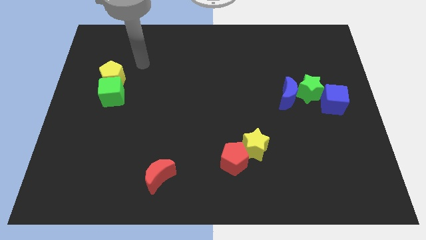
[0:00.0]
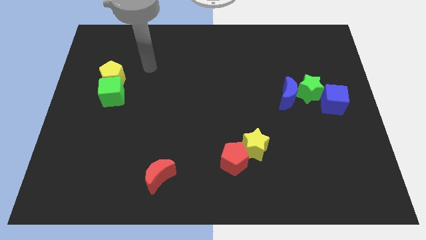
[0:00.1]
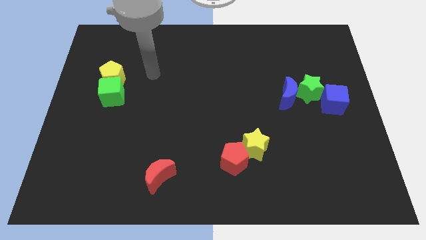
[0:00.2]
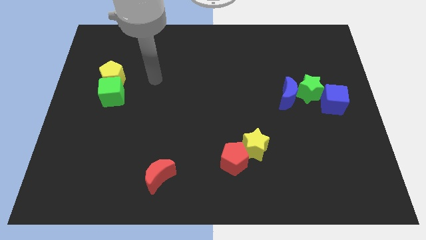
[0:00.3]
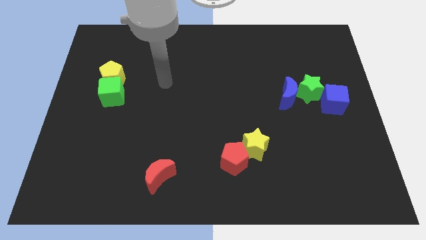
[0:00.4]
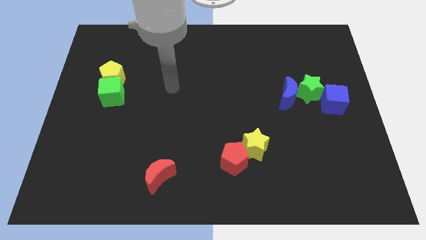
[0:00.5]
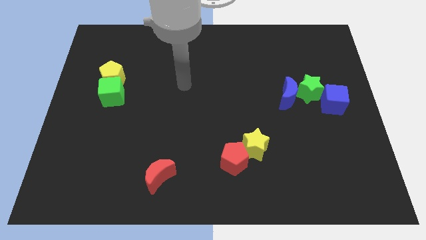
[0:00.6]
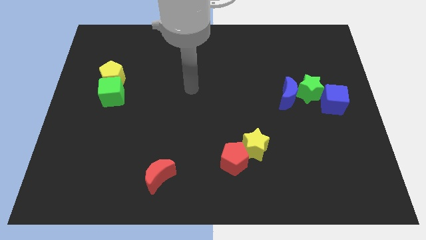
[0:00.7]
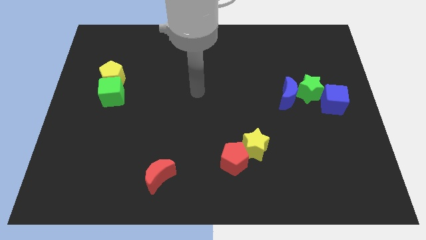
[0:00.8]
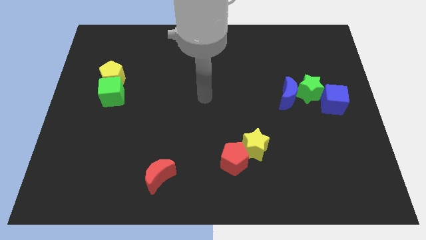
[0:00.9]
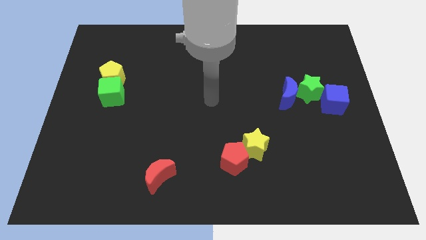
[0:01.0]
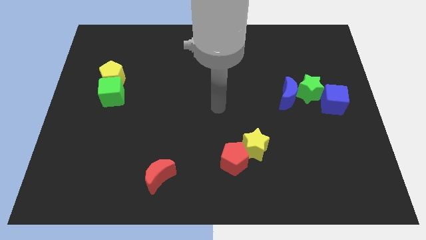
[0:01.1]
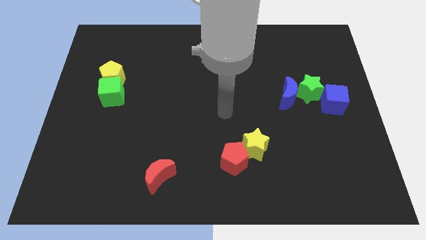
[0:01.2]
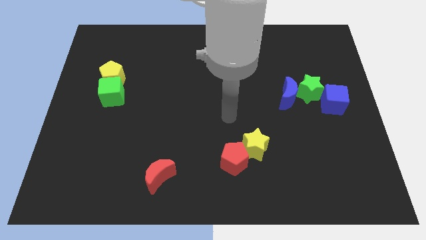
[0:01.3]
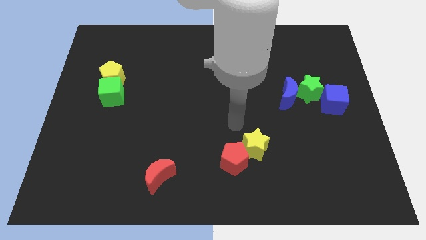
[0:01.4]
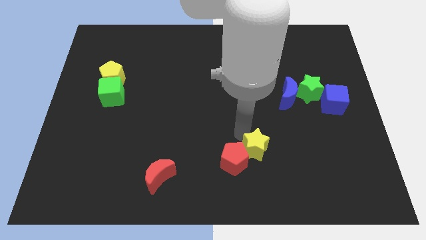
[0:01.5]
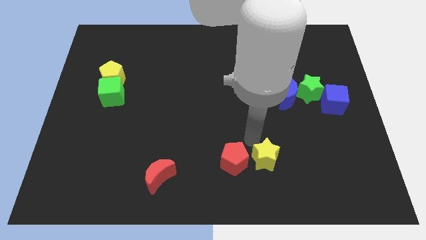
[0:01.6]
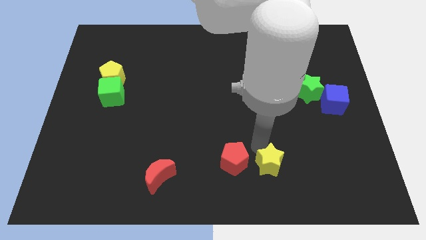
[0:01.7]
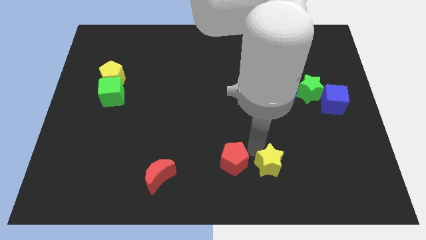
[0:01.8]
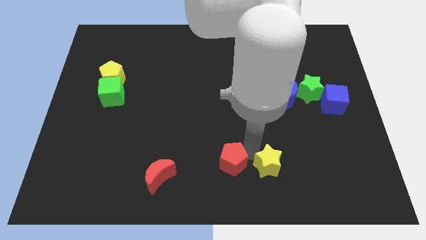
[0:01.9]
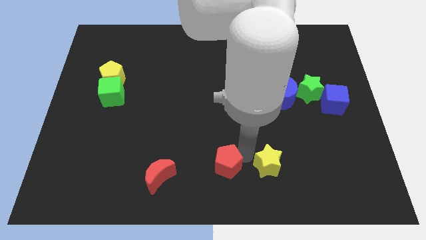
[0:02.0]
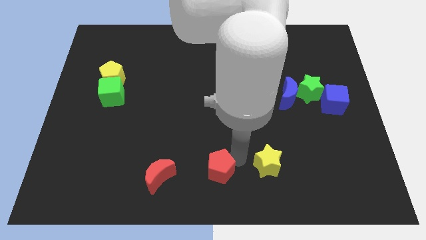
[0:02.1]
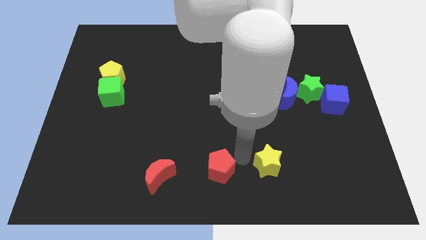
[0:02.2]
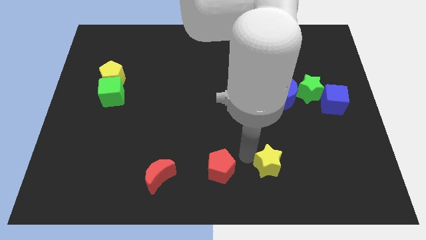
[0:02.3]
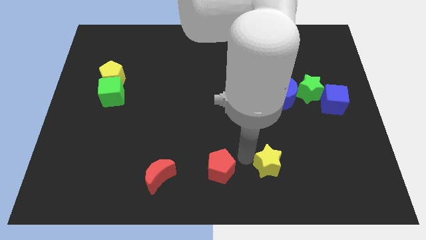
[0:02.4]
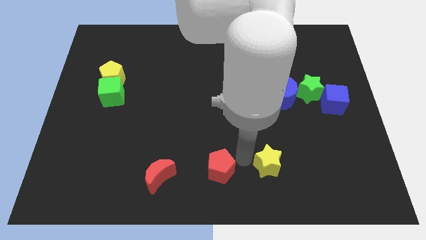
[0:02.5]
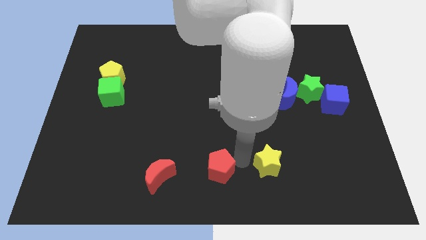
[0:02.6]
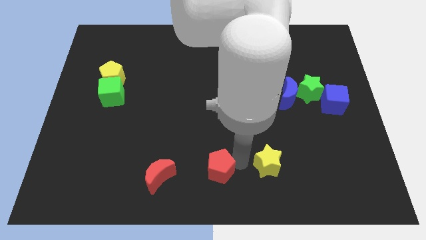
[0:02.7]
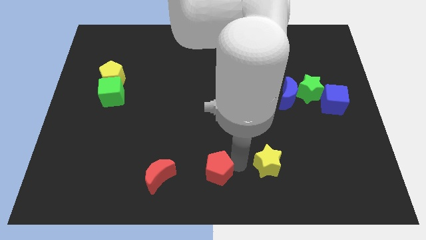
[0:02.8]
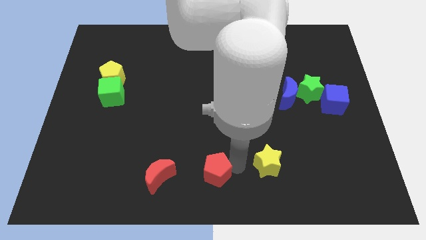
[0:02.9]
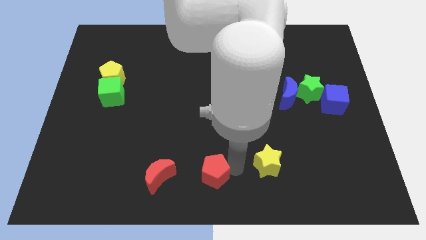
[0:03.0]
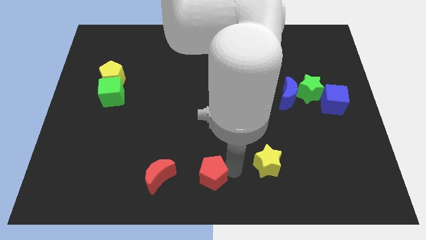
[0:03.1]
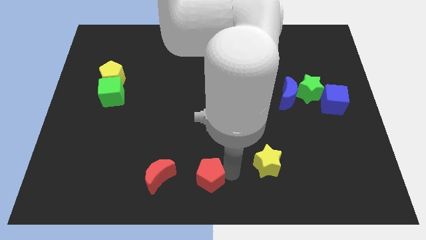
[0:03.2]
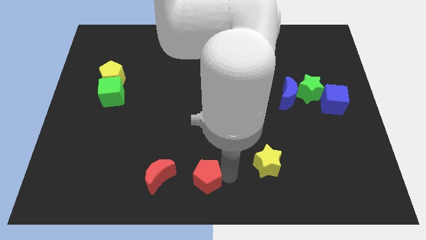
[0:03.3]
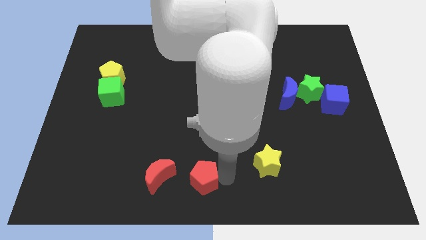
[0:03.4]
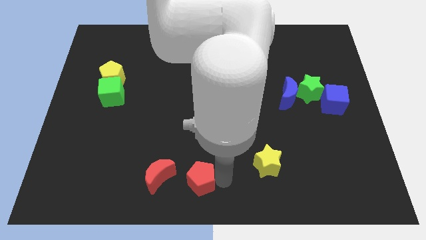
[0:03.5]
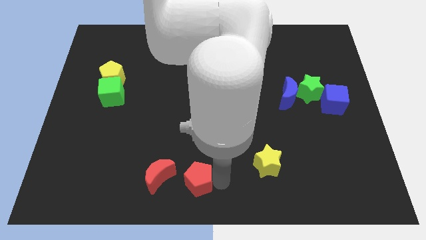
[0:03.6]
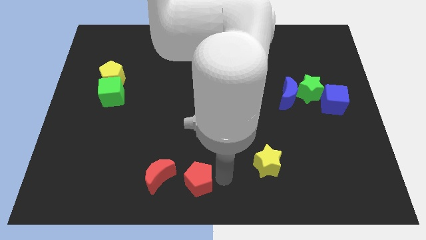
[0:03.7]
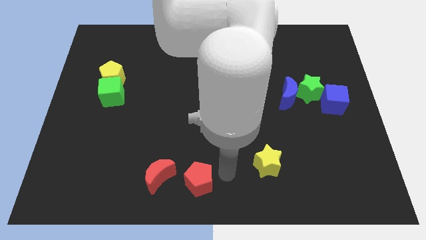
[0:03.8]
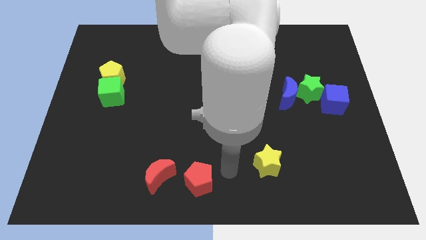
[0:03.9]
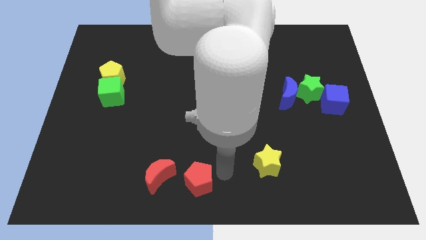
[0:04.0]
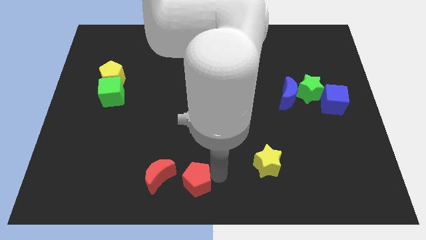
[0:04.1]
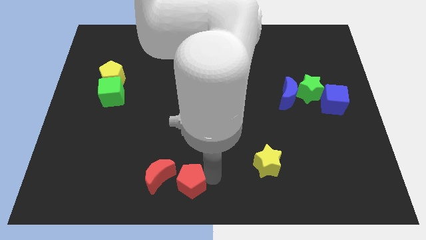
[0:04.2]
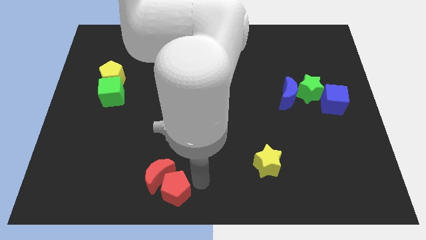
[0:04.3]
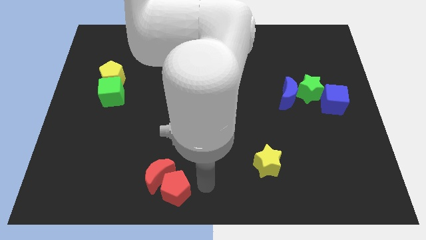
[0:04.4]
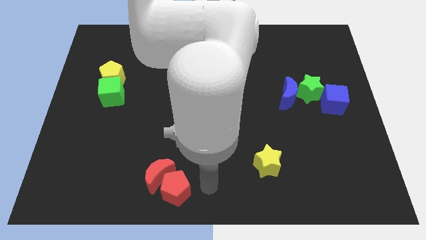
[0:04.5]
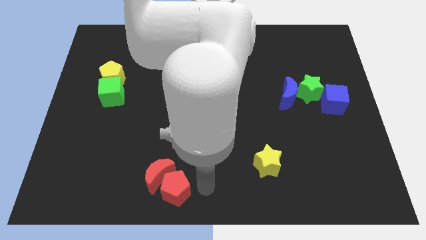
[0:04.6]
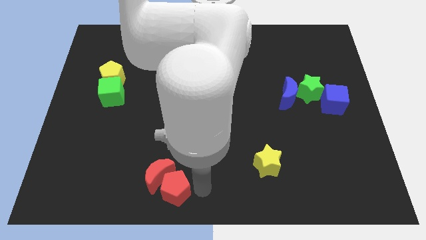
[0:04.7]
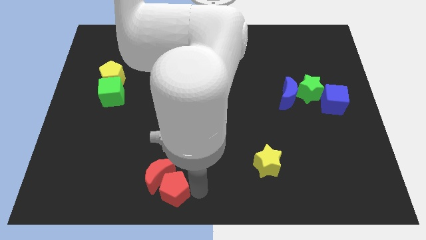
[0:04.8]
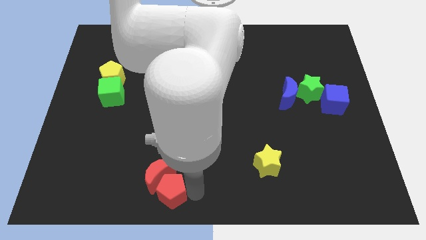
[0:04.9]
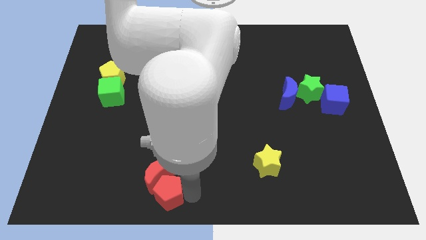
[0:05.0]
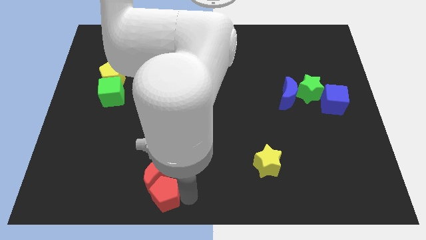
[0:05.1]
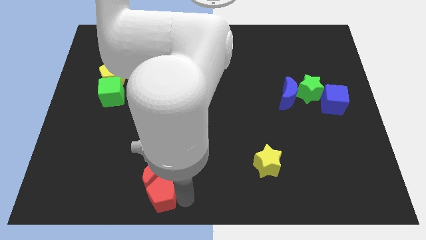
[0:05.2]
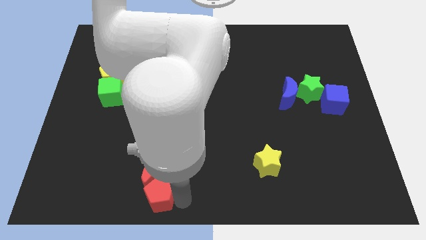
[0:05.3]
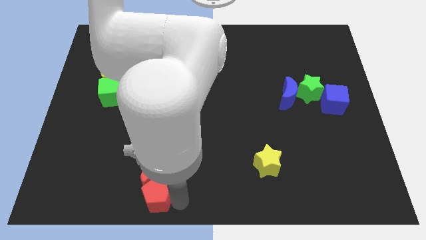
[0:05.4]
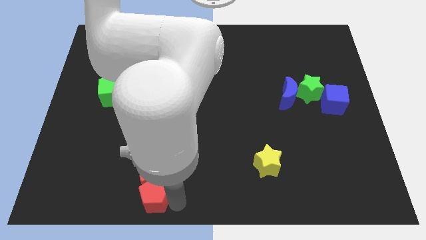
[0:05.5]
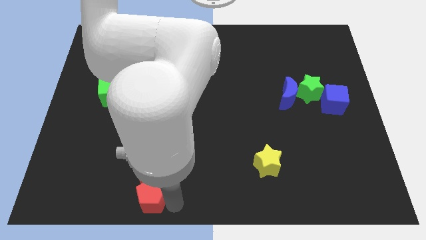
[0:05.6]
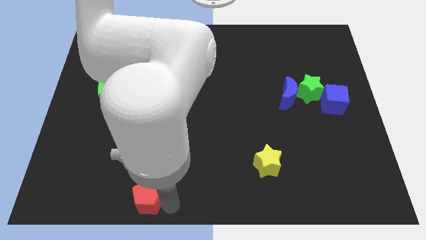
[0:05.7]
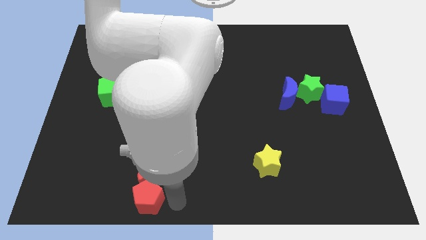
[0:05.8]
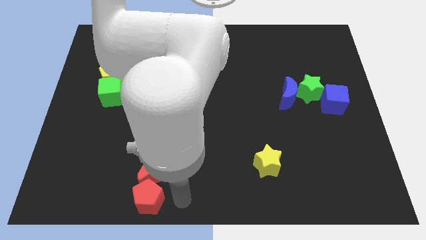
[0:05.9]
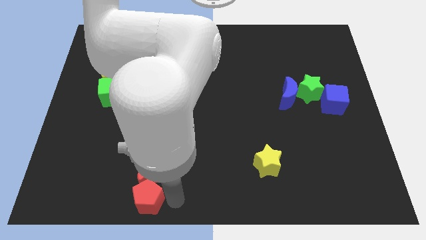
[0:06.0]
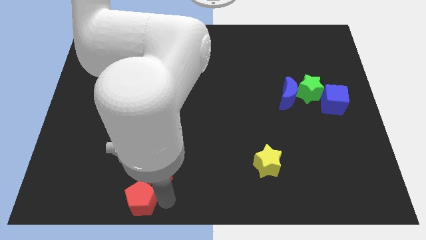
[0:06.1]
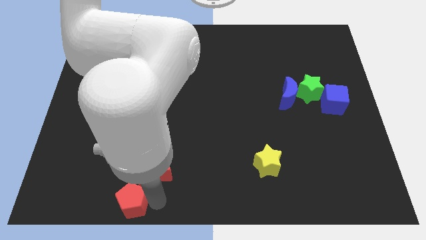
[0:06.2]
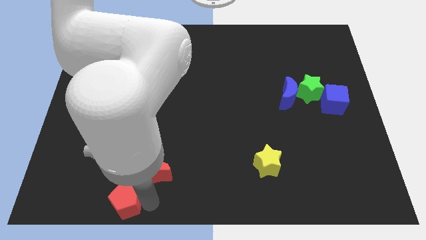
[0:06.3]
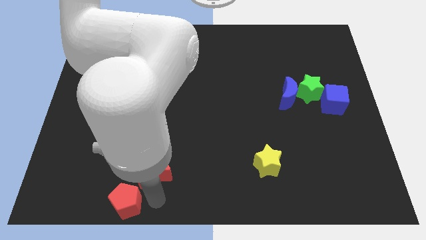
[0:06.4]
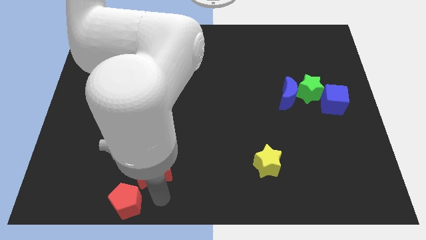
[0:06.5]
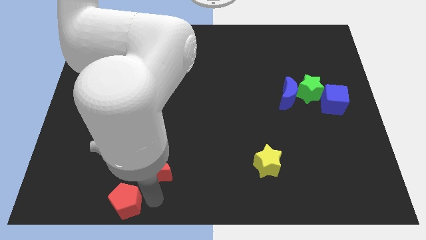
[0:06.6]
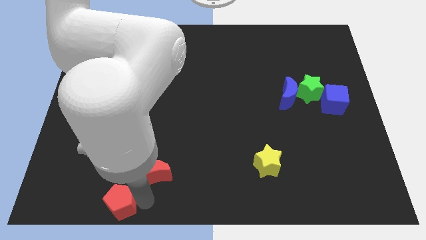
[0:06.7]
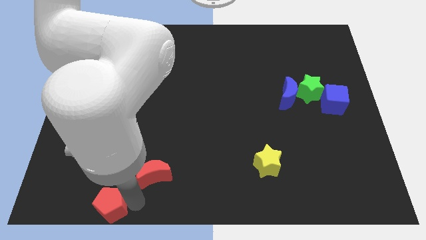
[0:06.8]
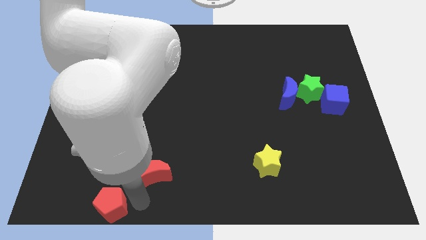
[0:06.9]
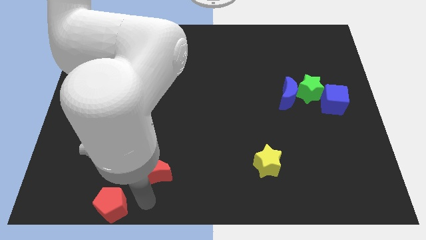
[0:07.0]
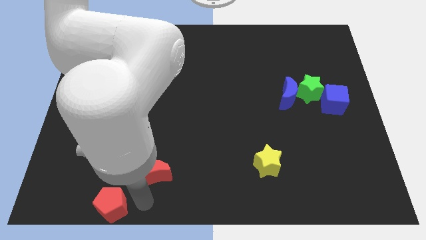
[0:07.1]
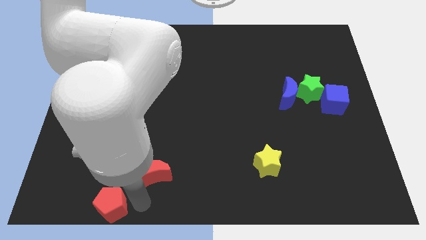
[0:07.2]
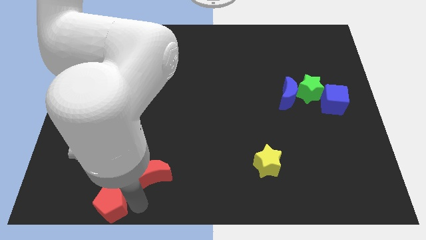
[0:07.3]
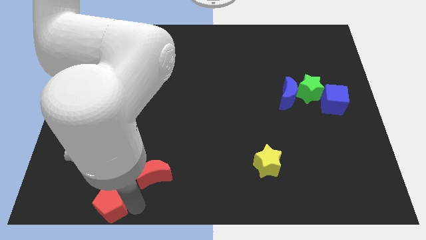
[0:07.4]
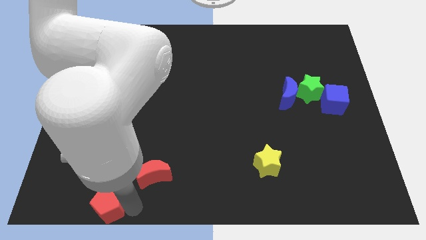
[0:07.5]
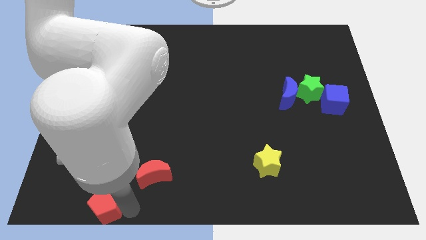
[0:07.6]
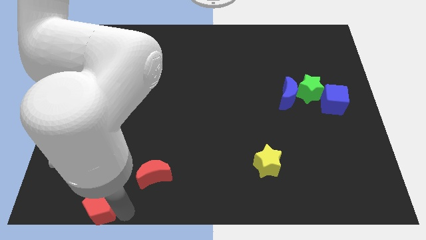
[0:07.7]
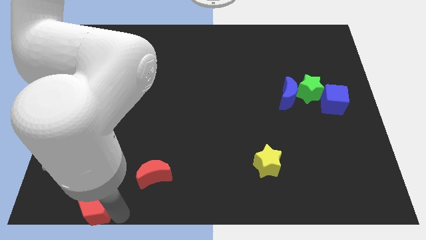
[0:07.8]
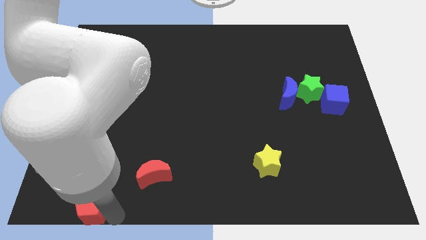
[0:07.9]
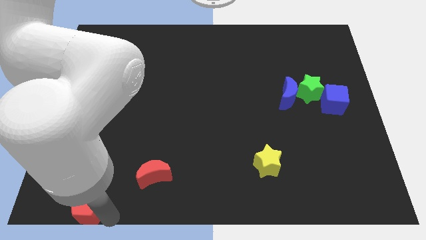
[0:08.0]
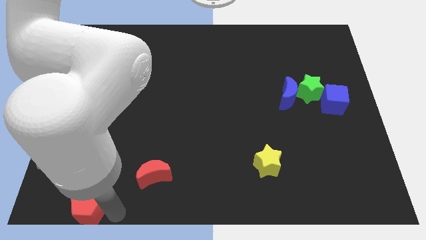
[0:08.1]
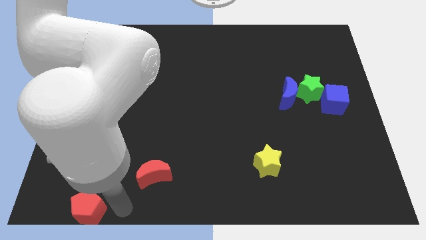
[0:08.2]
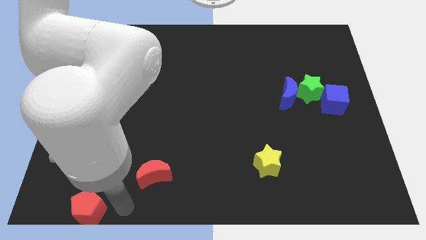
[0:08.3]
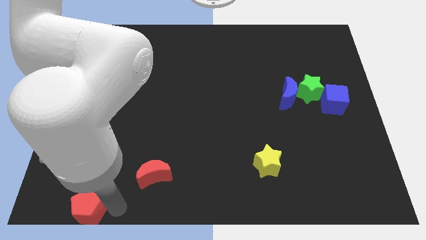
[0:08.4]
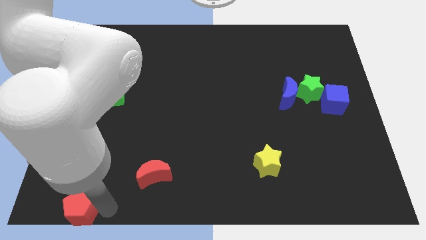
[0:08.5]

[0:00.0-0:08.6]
put the red pentagon to the bottom left of the board
